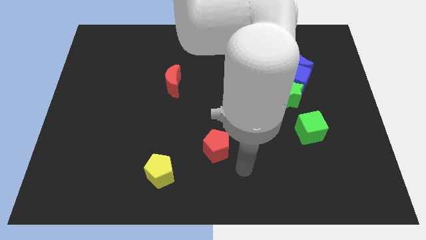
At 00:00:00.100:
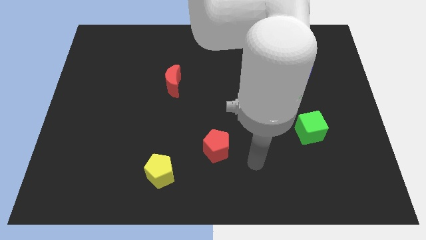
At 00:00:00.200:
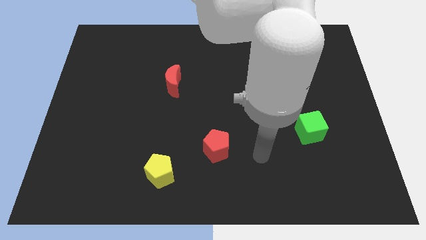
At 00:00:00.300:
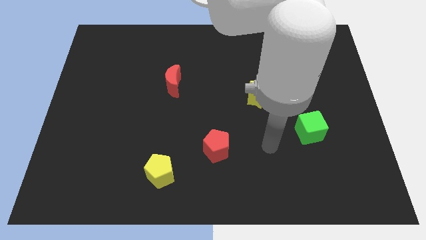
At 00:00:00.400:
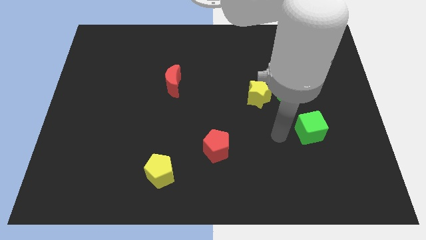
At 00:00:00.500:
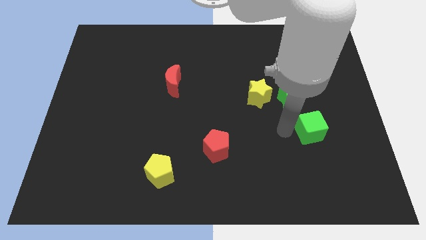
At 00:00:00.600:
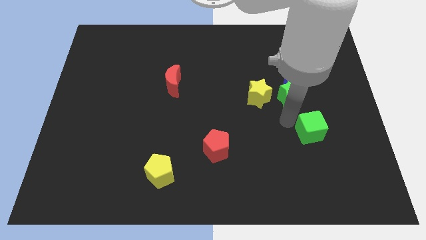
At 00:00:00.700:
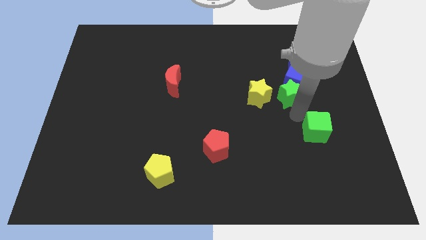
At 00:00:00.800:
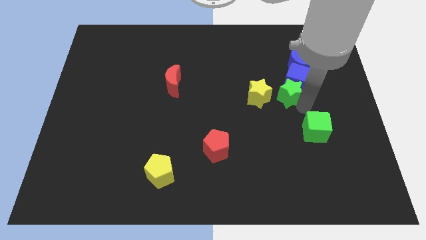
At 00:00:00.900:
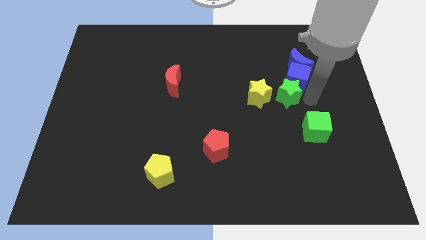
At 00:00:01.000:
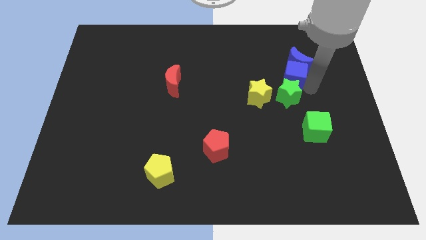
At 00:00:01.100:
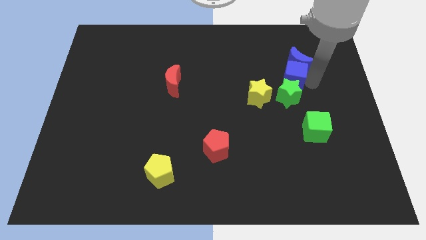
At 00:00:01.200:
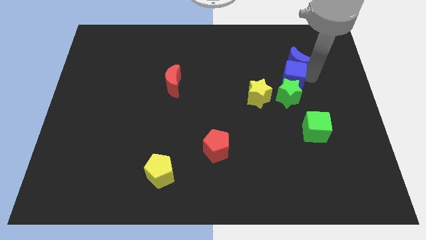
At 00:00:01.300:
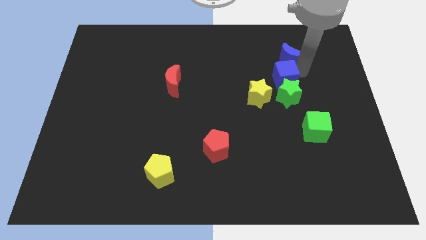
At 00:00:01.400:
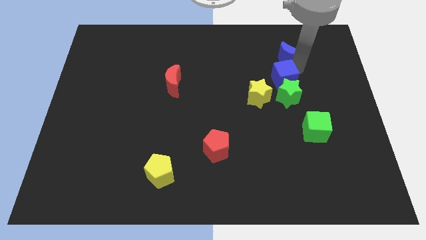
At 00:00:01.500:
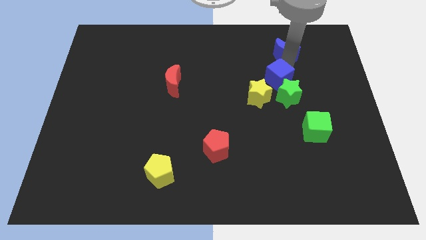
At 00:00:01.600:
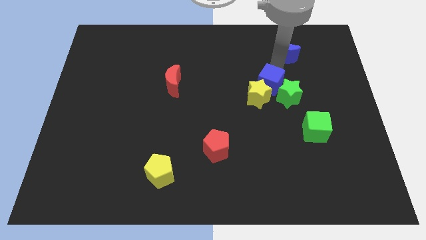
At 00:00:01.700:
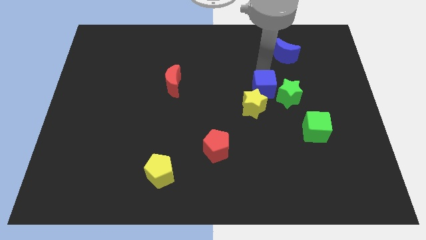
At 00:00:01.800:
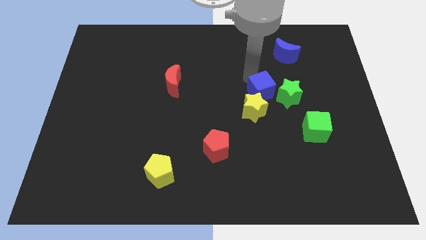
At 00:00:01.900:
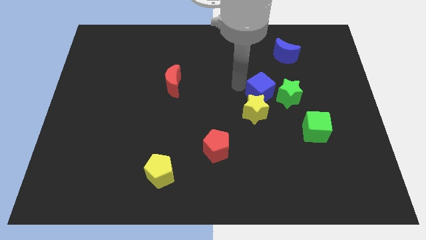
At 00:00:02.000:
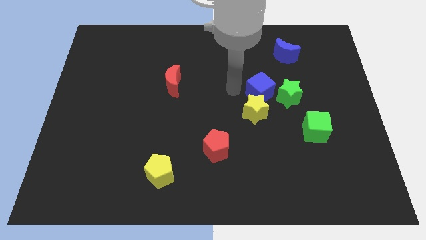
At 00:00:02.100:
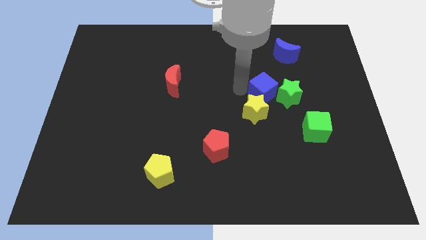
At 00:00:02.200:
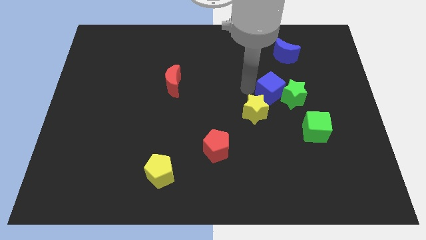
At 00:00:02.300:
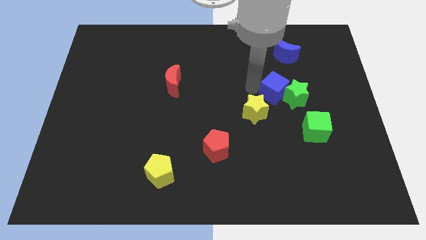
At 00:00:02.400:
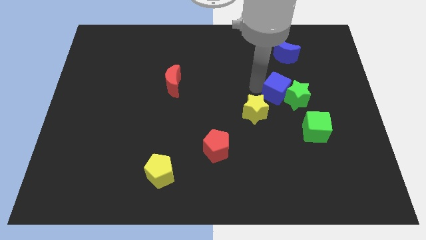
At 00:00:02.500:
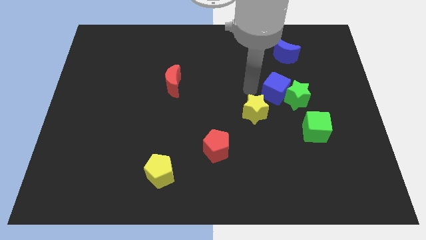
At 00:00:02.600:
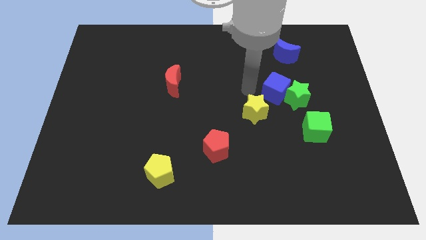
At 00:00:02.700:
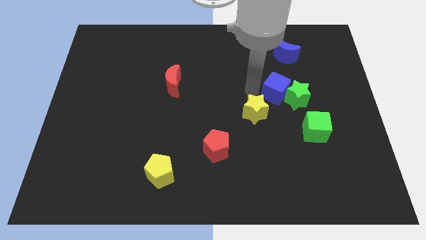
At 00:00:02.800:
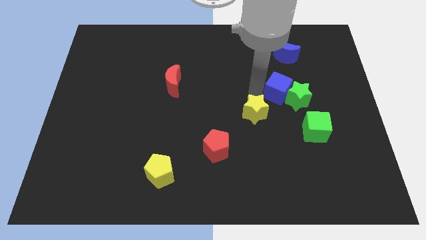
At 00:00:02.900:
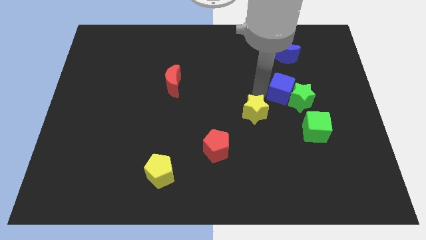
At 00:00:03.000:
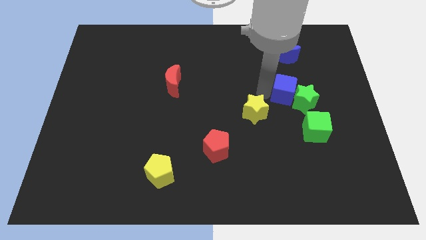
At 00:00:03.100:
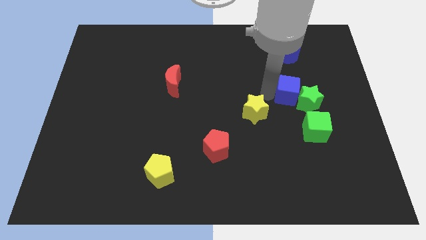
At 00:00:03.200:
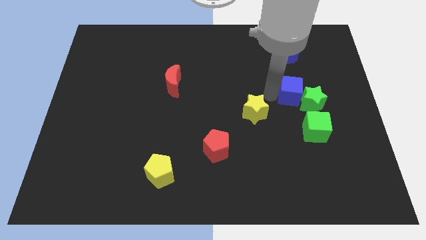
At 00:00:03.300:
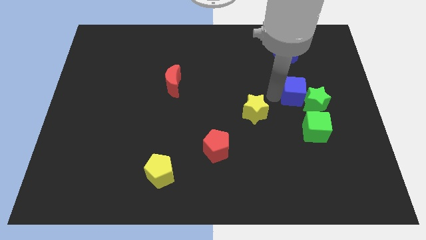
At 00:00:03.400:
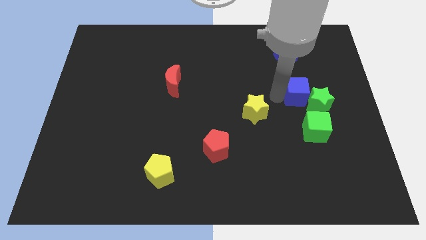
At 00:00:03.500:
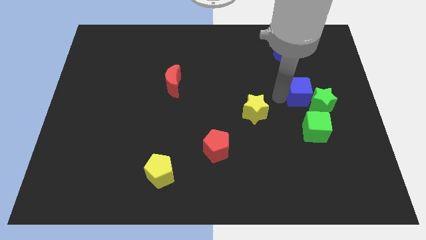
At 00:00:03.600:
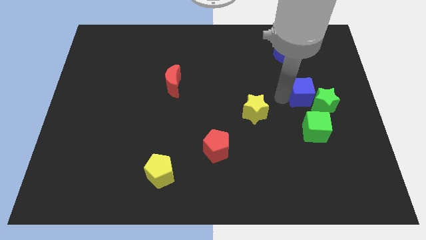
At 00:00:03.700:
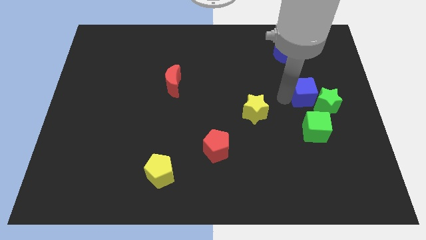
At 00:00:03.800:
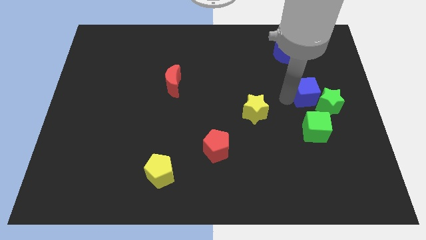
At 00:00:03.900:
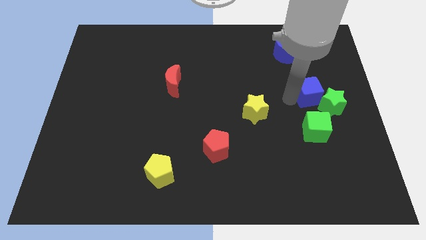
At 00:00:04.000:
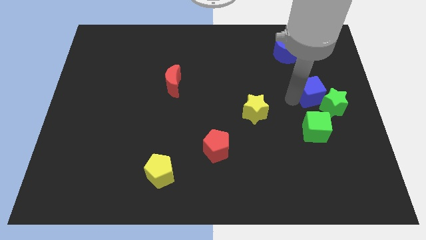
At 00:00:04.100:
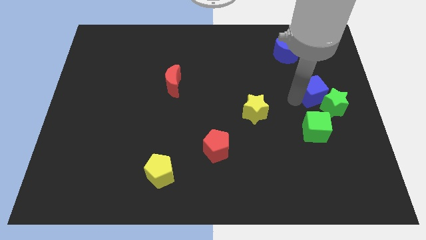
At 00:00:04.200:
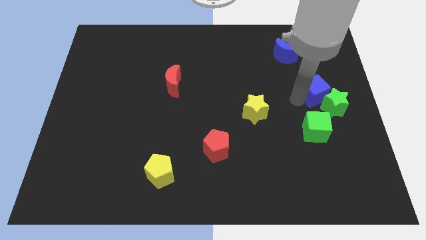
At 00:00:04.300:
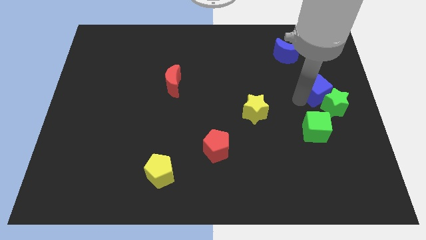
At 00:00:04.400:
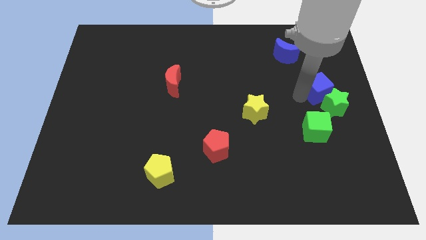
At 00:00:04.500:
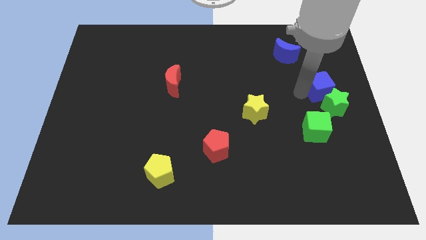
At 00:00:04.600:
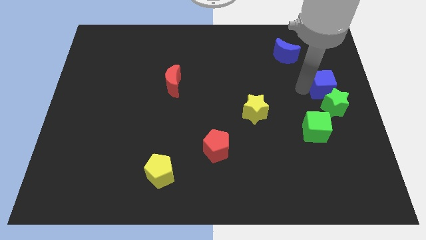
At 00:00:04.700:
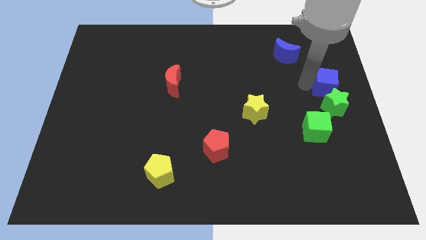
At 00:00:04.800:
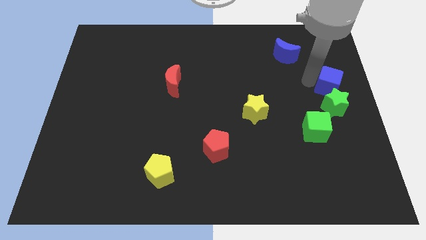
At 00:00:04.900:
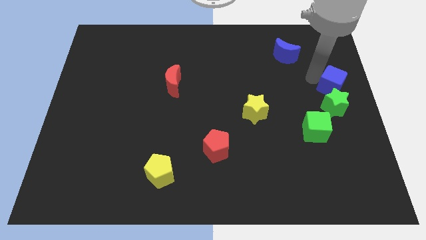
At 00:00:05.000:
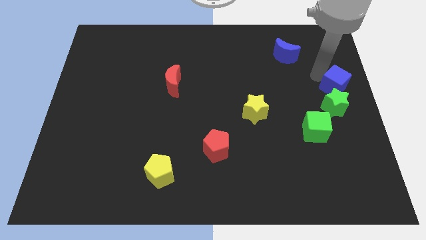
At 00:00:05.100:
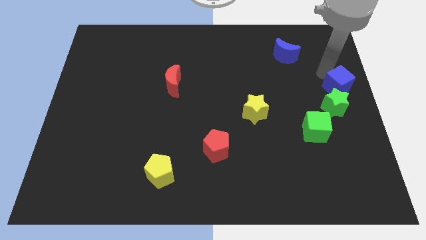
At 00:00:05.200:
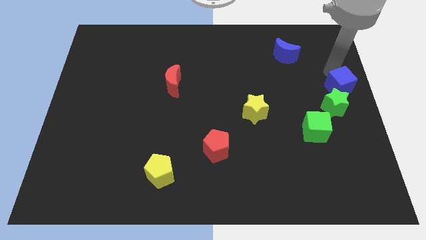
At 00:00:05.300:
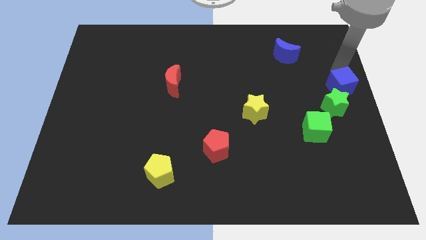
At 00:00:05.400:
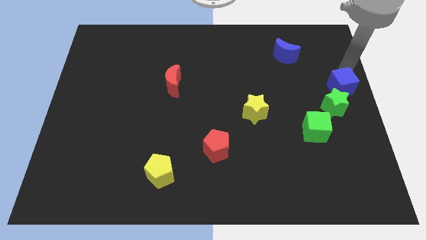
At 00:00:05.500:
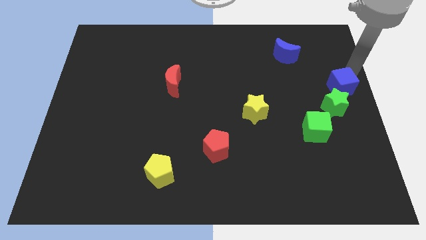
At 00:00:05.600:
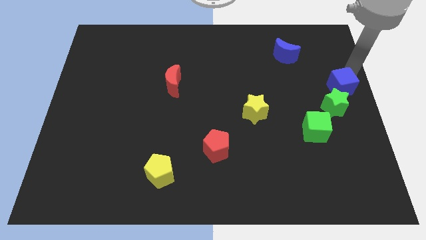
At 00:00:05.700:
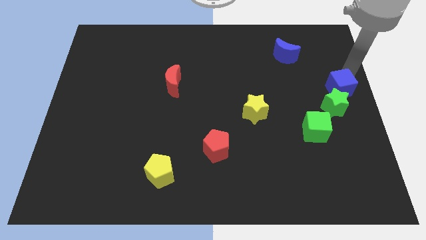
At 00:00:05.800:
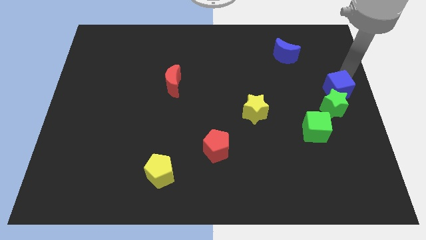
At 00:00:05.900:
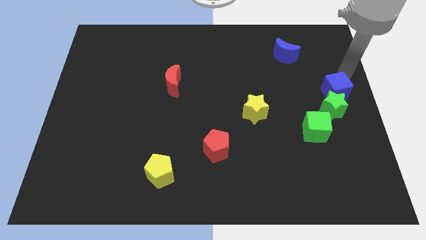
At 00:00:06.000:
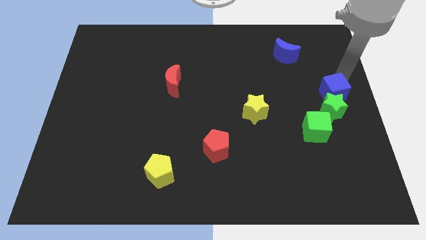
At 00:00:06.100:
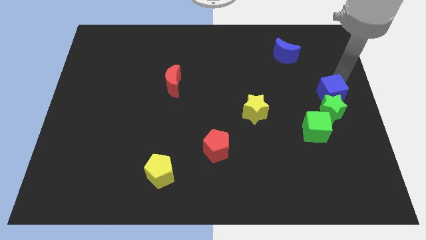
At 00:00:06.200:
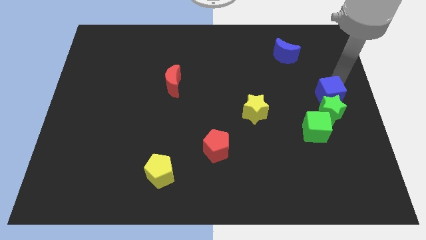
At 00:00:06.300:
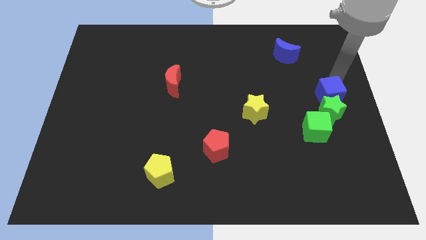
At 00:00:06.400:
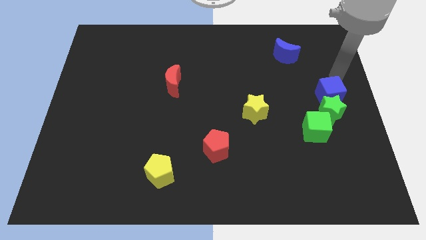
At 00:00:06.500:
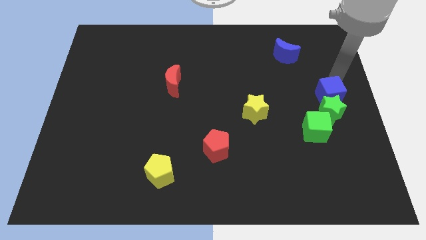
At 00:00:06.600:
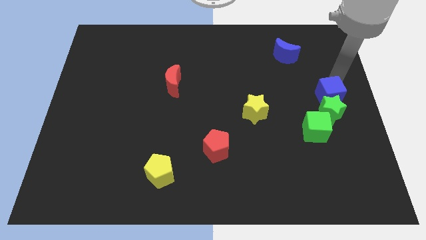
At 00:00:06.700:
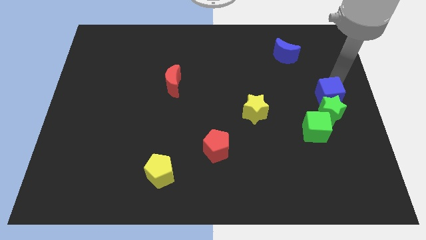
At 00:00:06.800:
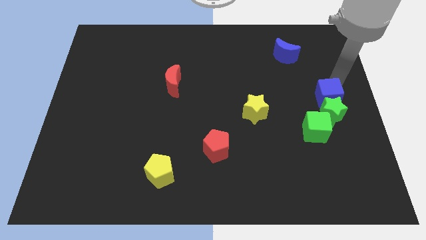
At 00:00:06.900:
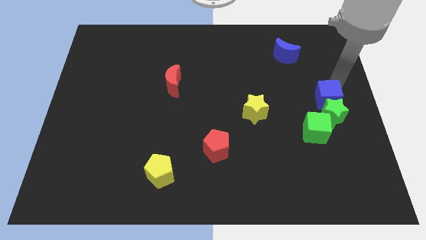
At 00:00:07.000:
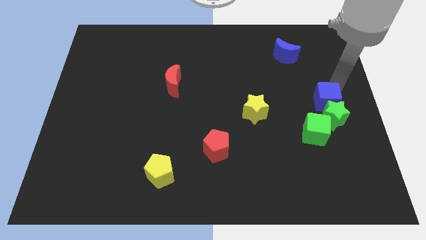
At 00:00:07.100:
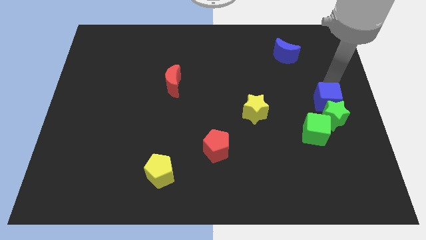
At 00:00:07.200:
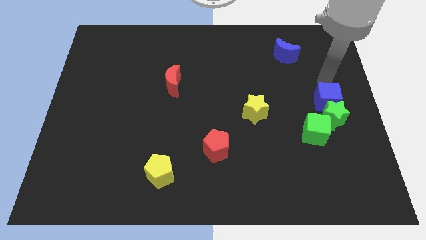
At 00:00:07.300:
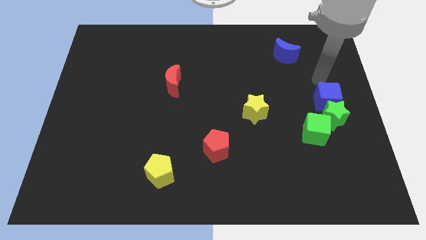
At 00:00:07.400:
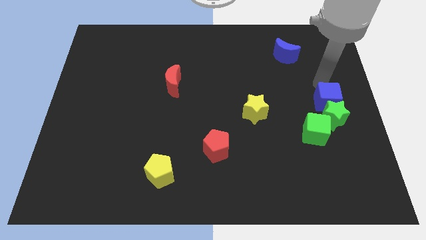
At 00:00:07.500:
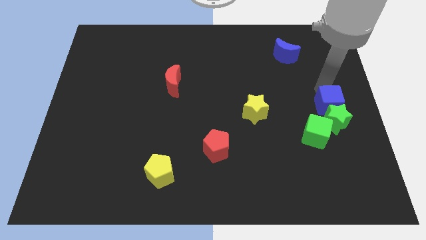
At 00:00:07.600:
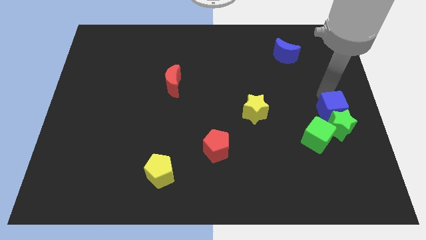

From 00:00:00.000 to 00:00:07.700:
slightly slide the blue cube downwards
